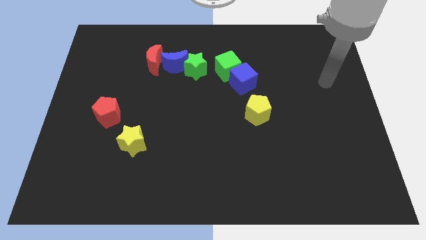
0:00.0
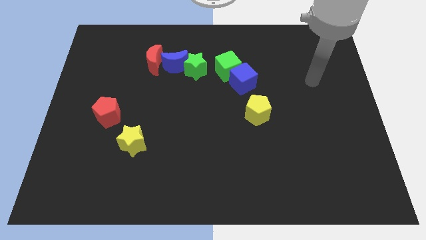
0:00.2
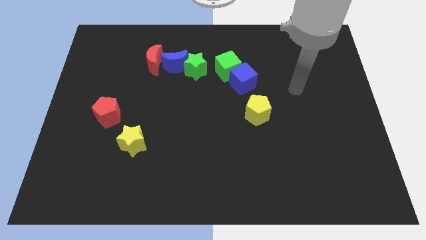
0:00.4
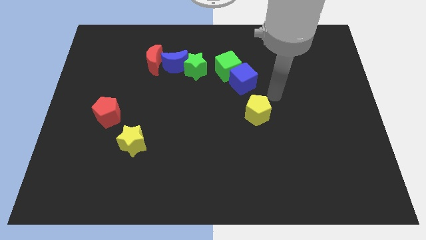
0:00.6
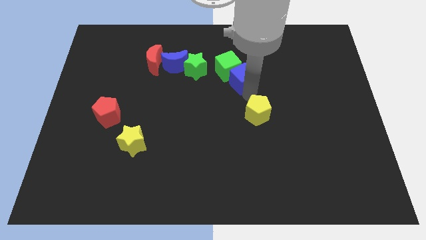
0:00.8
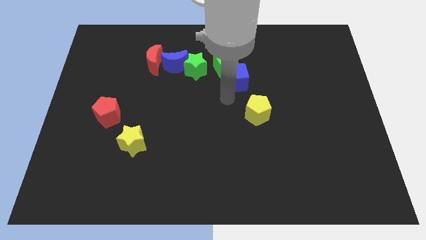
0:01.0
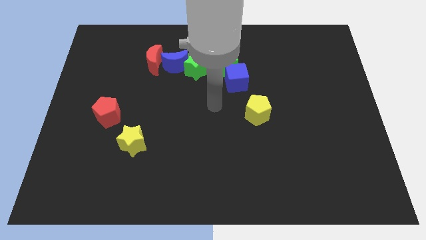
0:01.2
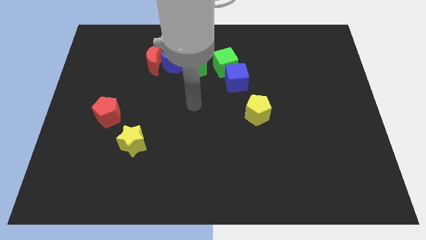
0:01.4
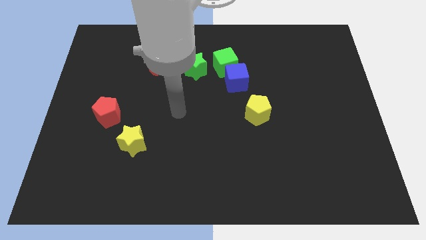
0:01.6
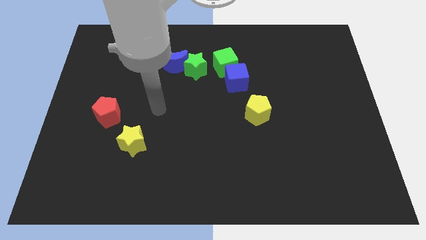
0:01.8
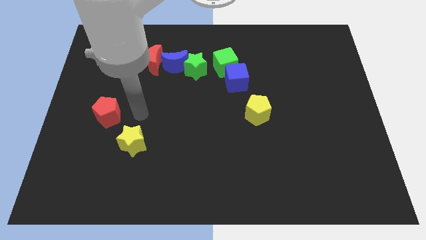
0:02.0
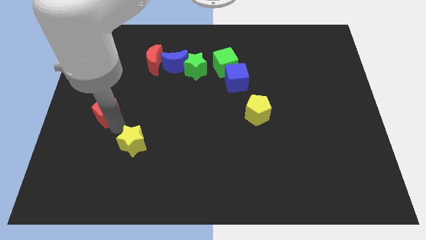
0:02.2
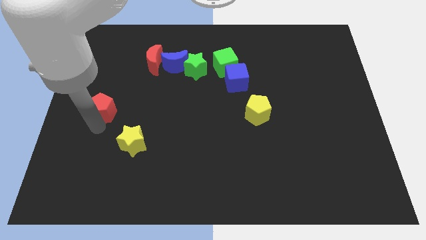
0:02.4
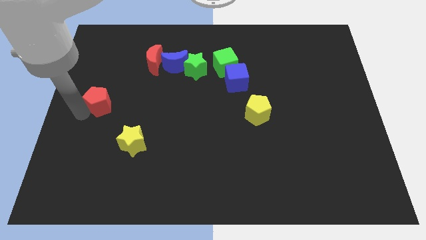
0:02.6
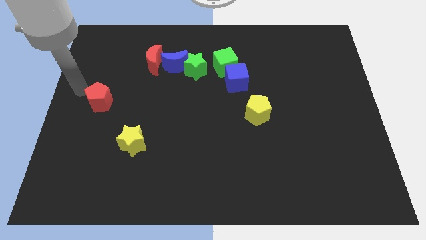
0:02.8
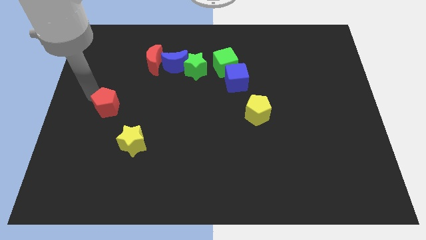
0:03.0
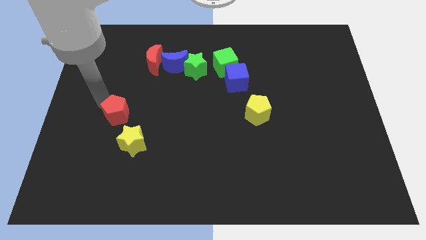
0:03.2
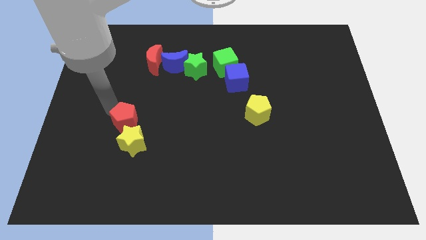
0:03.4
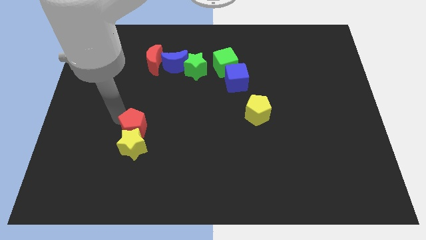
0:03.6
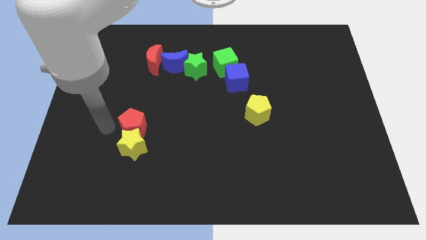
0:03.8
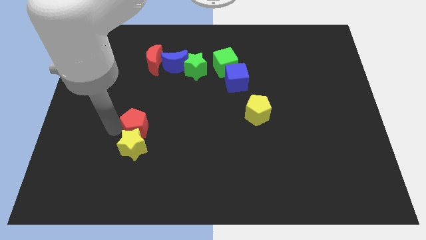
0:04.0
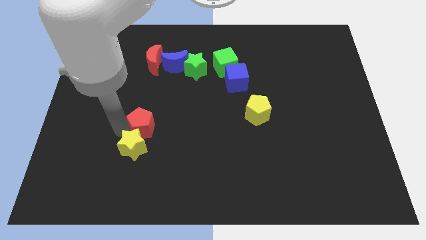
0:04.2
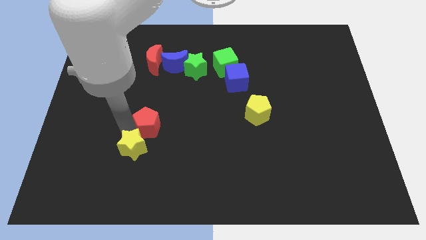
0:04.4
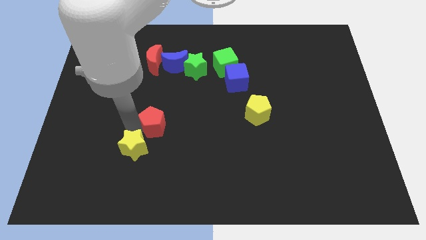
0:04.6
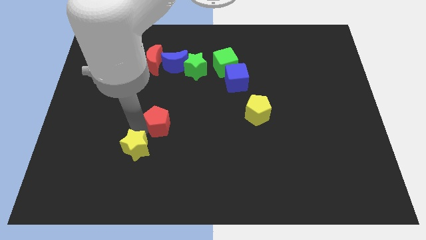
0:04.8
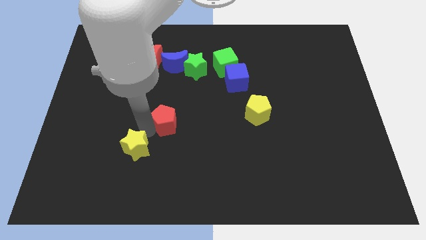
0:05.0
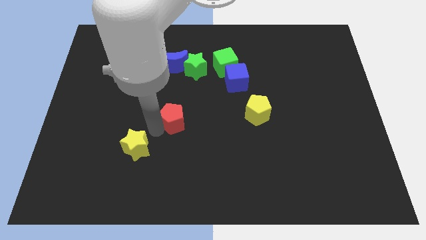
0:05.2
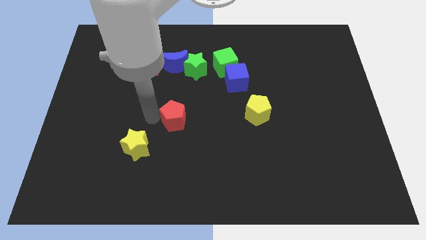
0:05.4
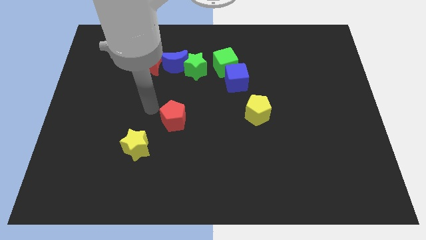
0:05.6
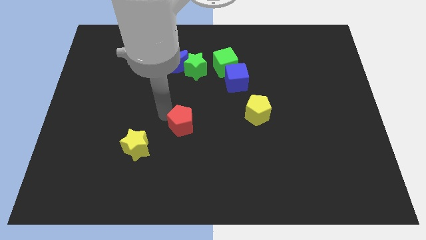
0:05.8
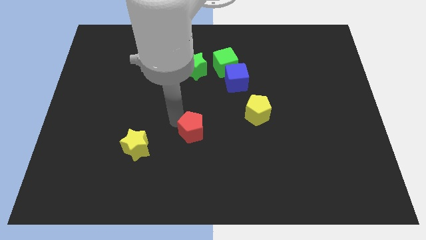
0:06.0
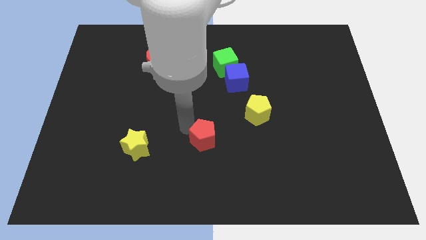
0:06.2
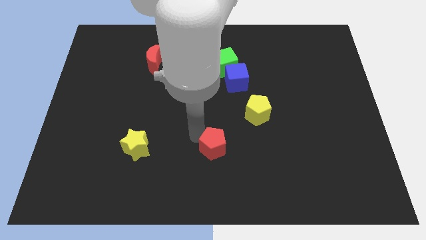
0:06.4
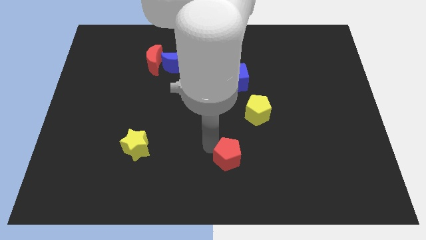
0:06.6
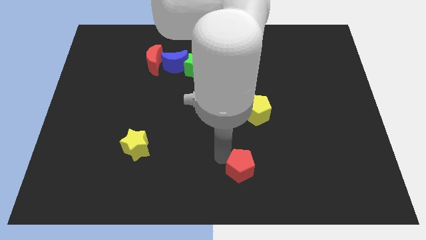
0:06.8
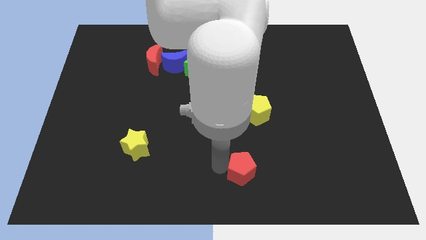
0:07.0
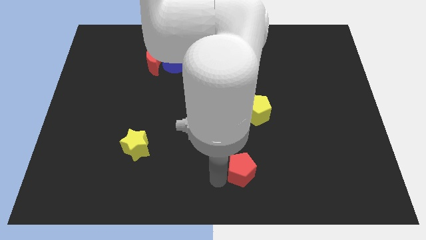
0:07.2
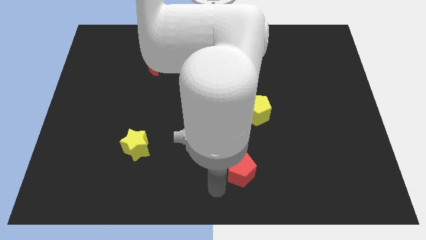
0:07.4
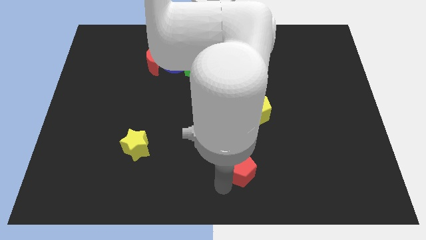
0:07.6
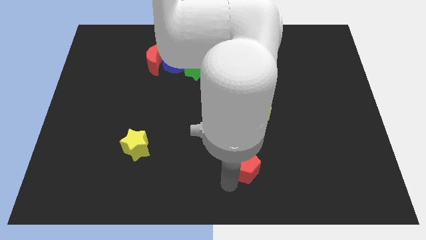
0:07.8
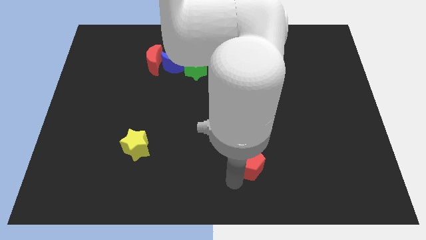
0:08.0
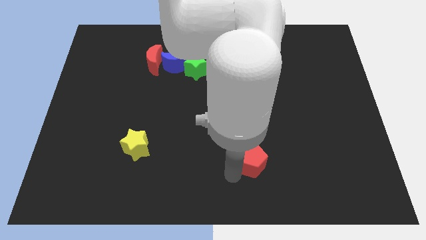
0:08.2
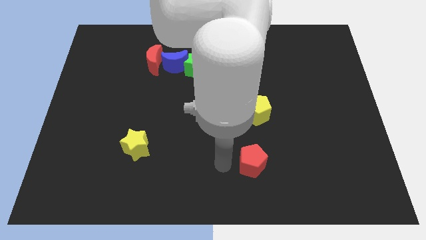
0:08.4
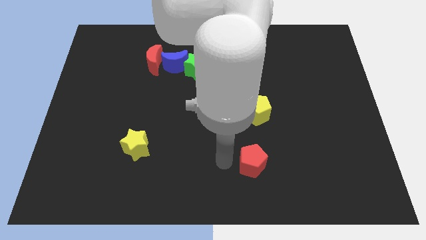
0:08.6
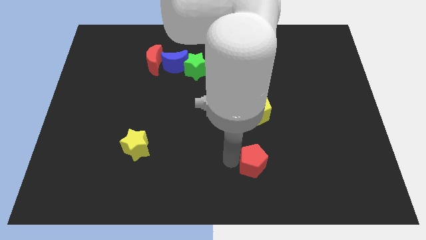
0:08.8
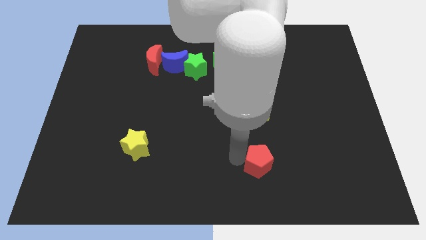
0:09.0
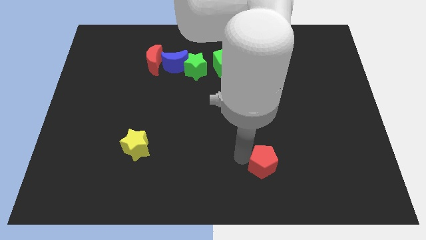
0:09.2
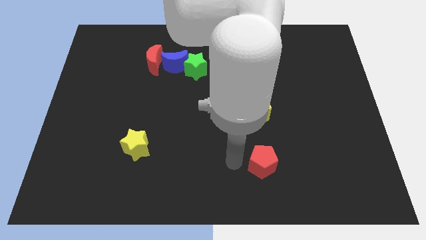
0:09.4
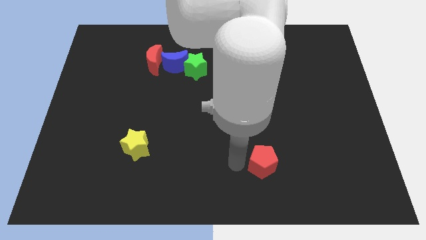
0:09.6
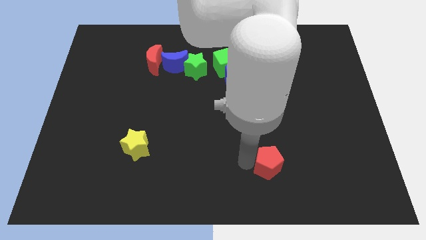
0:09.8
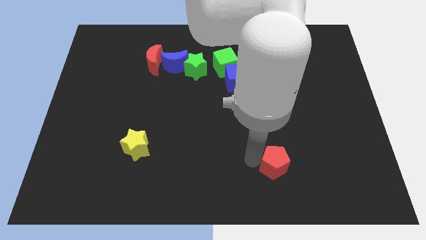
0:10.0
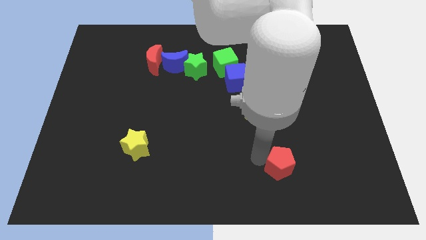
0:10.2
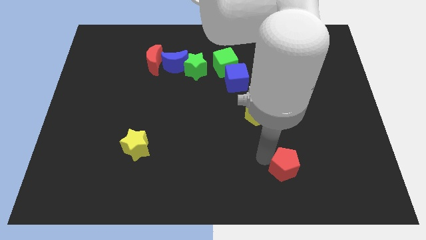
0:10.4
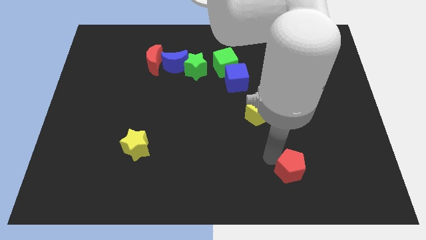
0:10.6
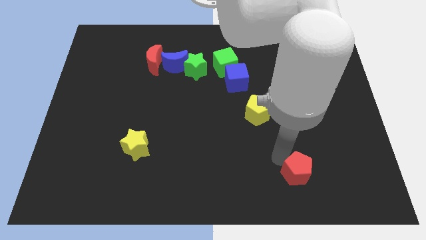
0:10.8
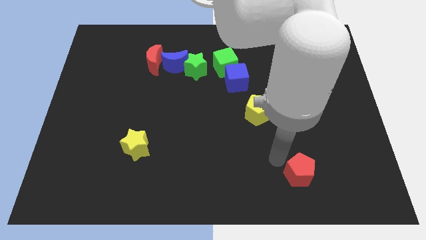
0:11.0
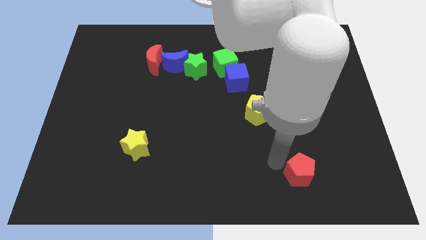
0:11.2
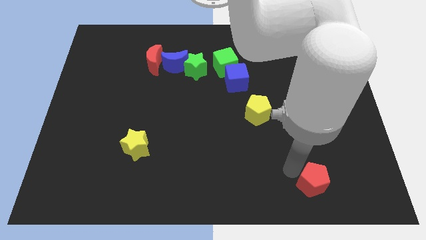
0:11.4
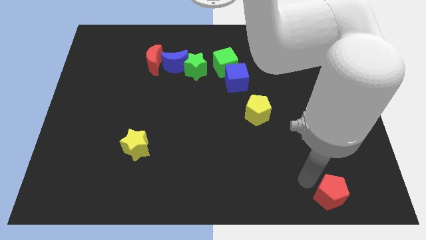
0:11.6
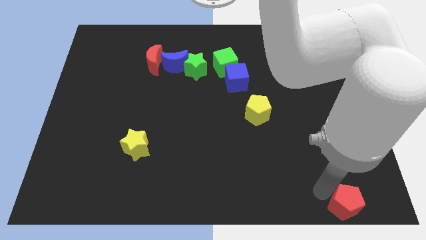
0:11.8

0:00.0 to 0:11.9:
slide the red pentagon to the bottom right of the board

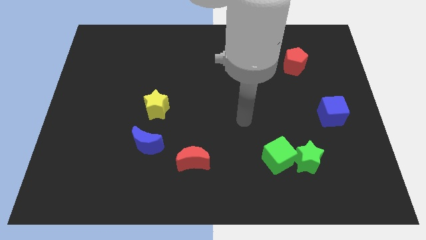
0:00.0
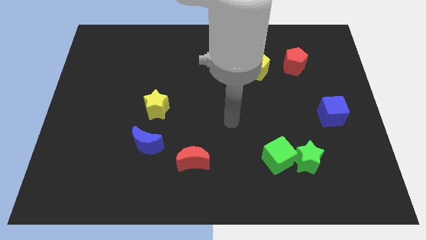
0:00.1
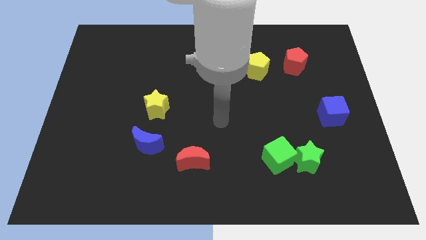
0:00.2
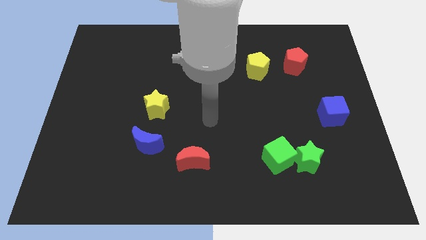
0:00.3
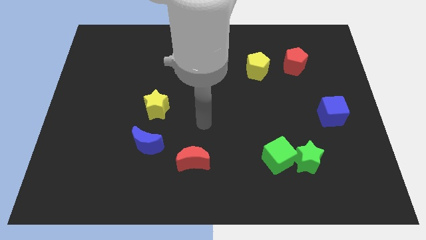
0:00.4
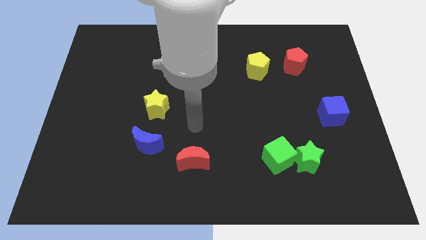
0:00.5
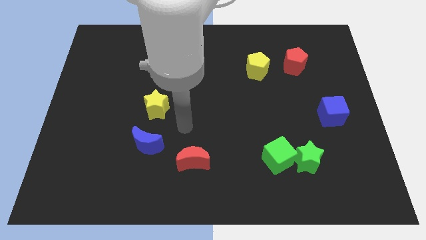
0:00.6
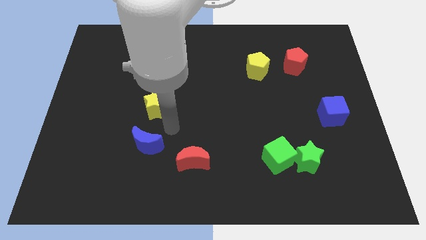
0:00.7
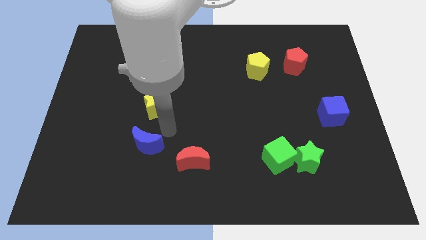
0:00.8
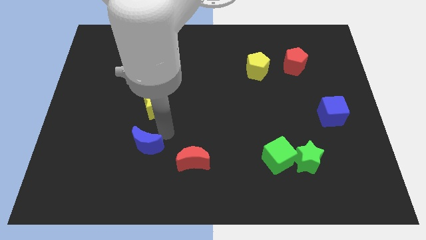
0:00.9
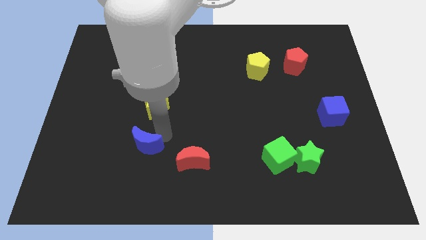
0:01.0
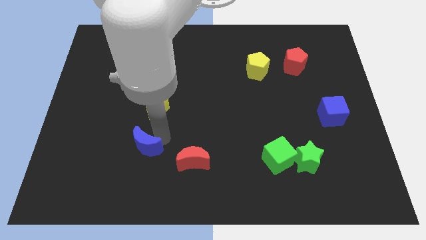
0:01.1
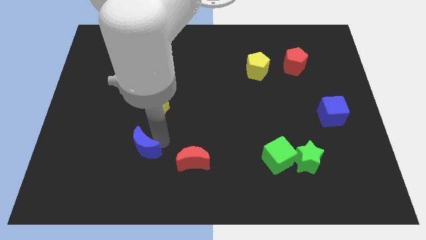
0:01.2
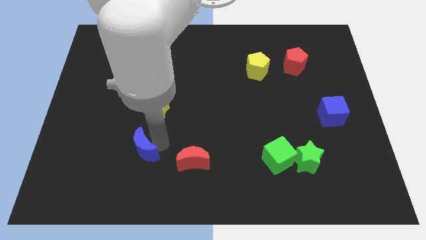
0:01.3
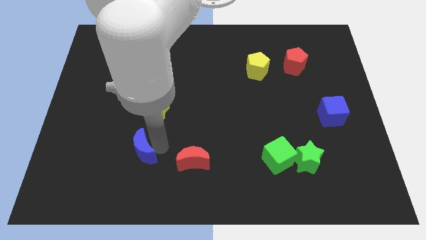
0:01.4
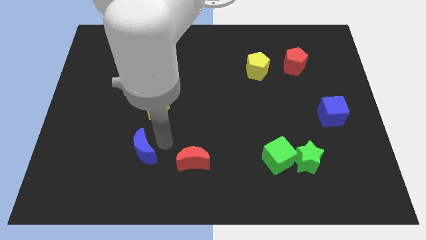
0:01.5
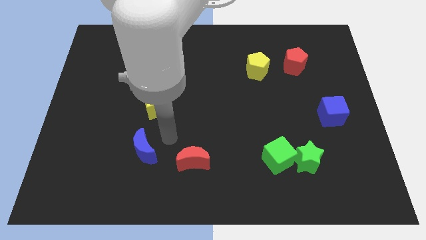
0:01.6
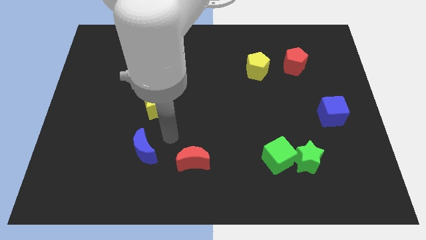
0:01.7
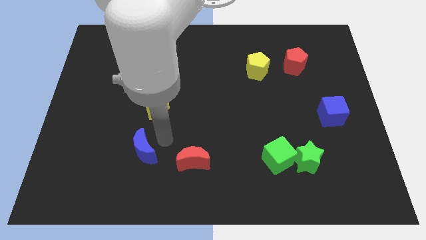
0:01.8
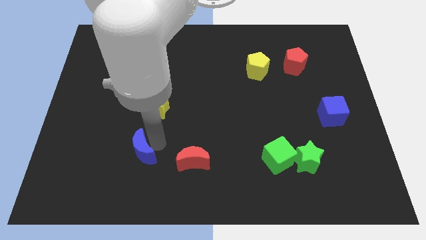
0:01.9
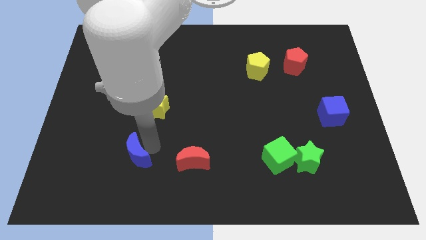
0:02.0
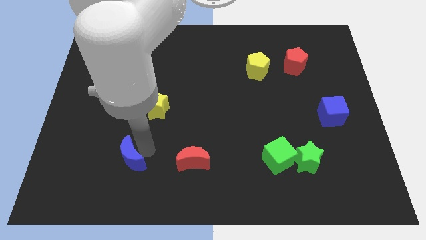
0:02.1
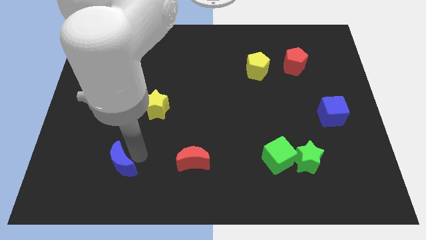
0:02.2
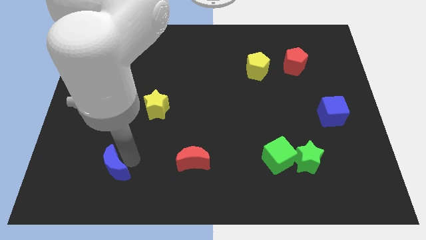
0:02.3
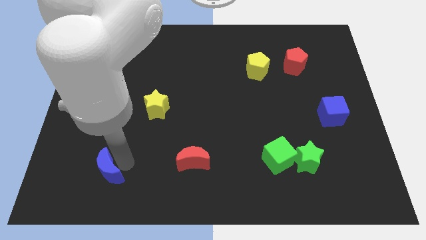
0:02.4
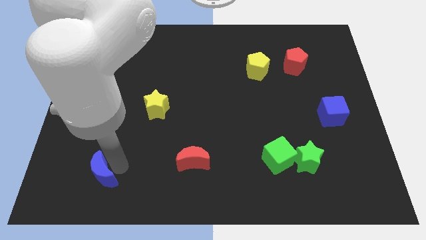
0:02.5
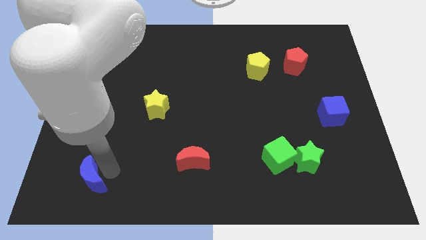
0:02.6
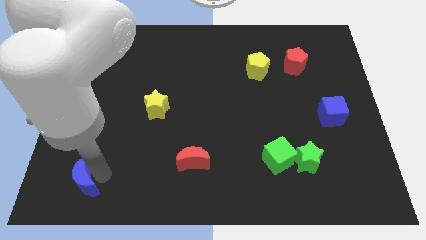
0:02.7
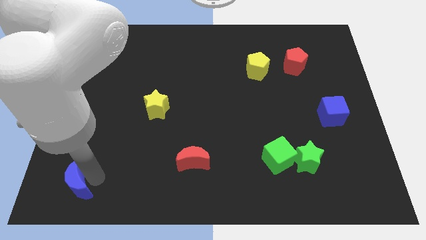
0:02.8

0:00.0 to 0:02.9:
move the blue moon to the bottom left corner
